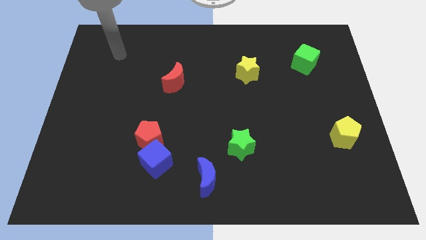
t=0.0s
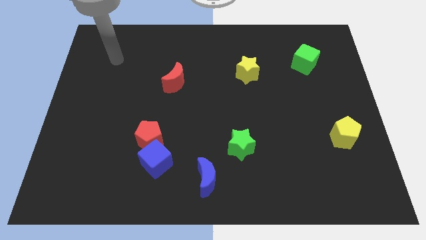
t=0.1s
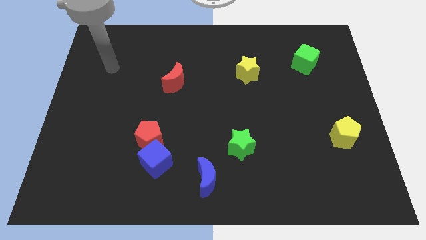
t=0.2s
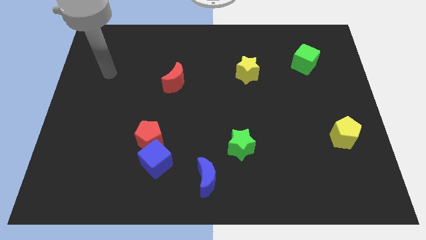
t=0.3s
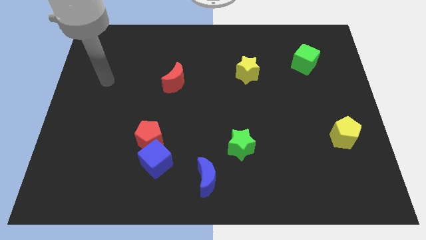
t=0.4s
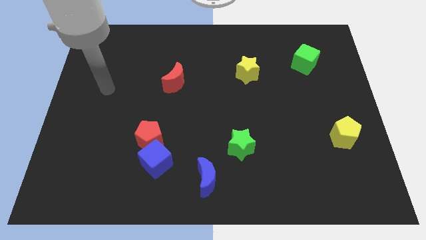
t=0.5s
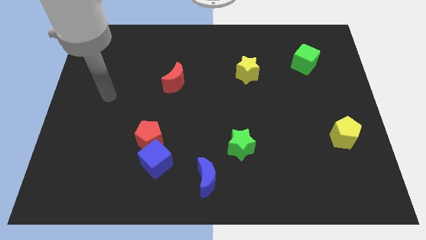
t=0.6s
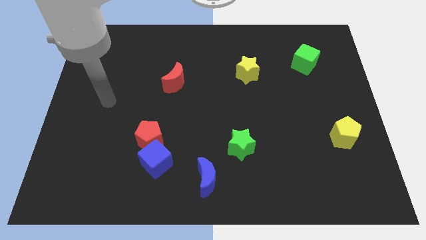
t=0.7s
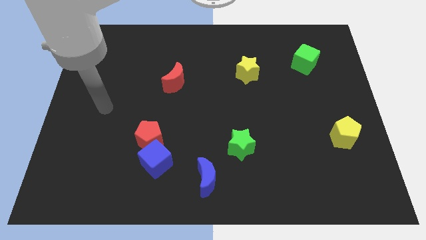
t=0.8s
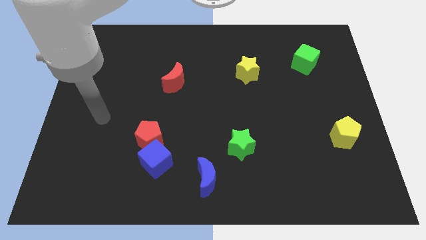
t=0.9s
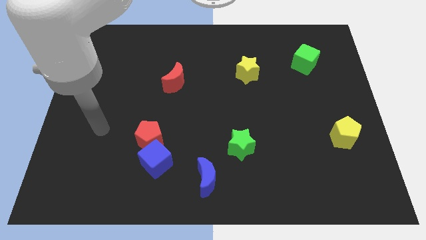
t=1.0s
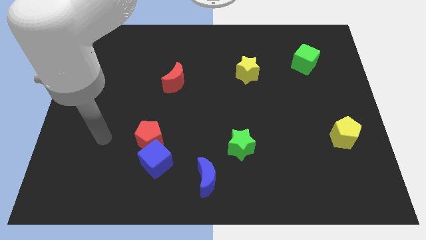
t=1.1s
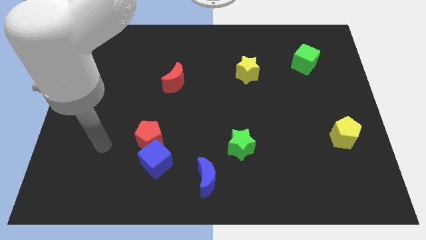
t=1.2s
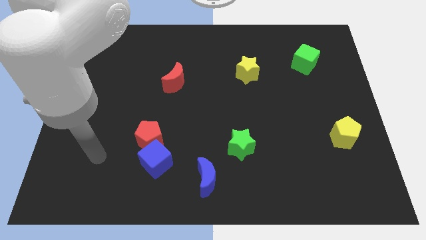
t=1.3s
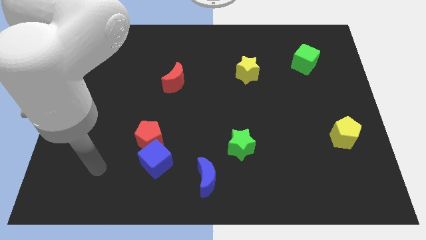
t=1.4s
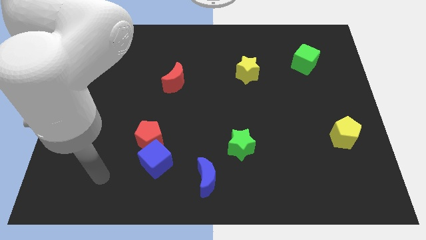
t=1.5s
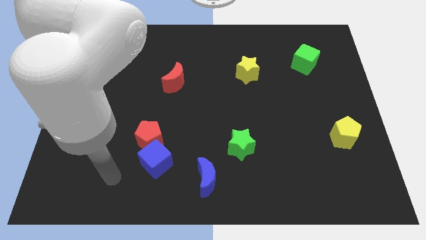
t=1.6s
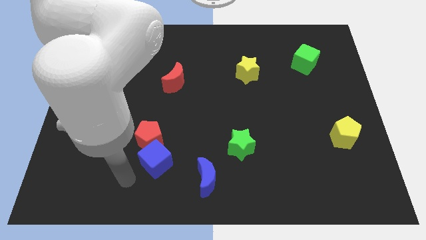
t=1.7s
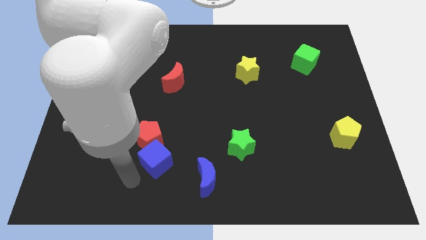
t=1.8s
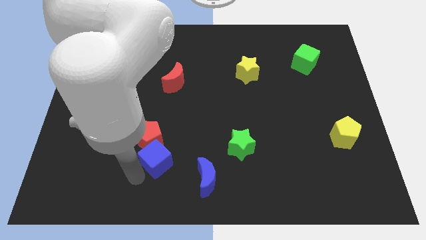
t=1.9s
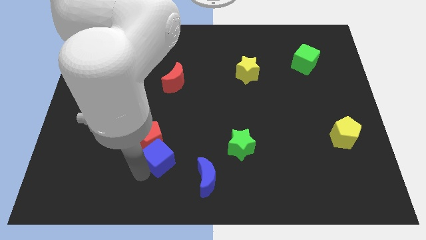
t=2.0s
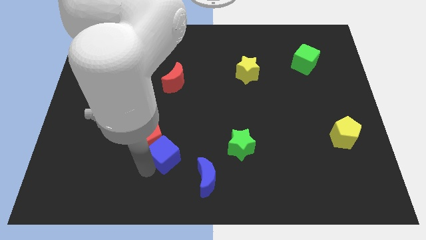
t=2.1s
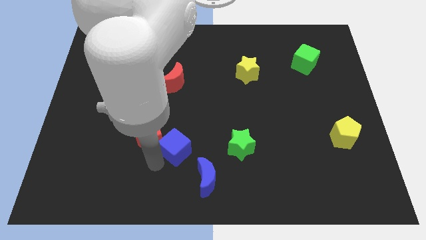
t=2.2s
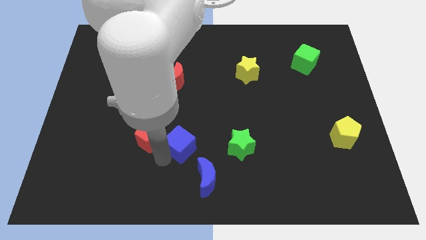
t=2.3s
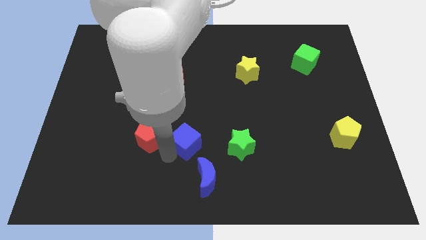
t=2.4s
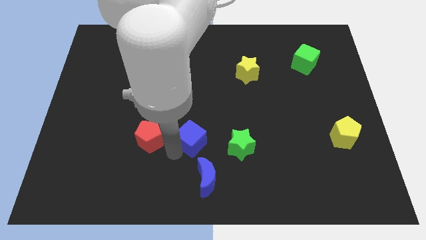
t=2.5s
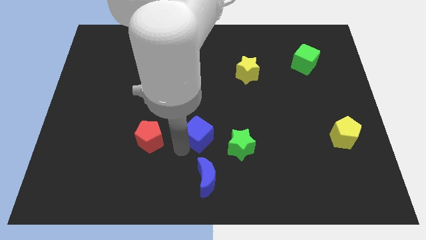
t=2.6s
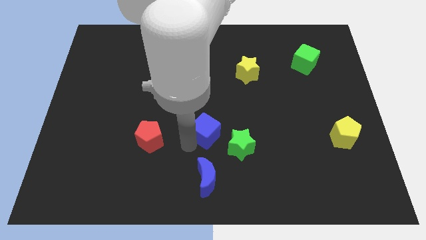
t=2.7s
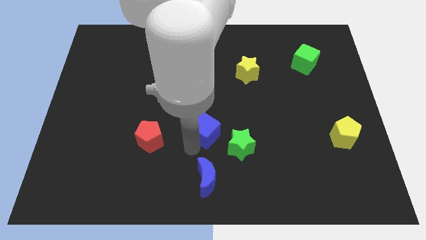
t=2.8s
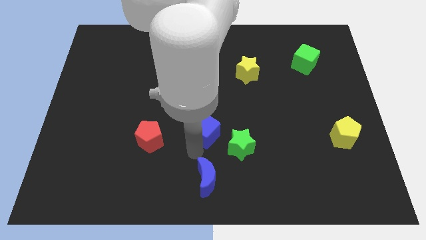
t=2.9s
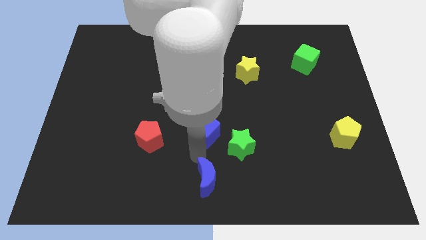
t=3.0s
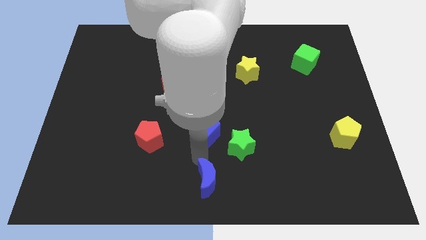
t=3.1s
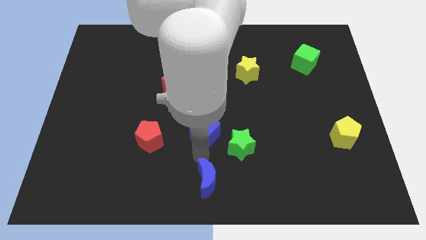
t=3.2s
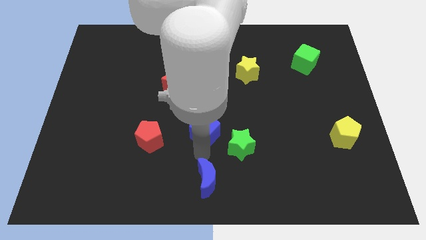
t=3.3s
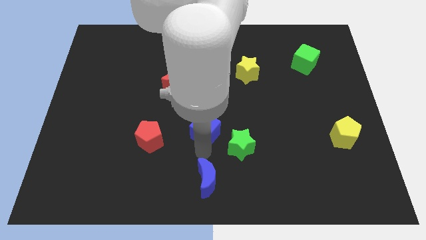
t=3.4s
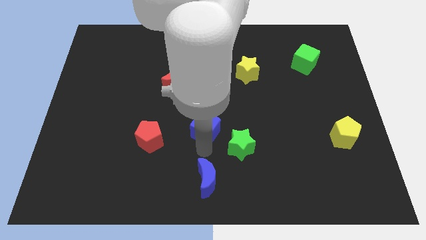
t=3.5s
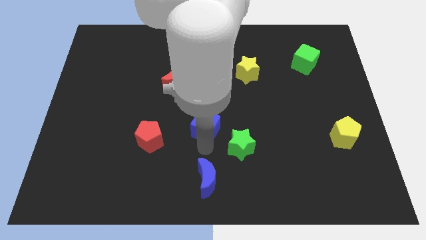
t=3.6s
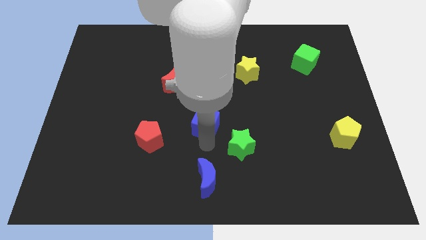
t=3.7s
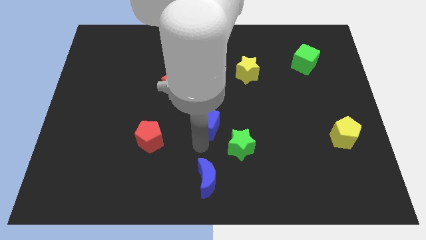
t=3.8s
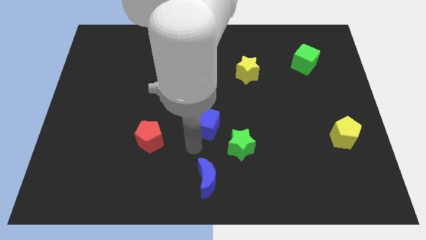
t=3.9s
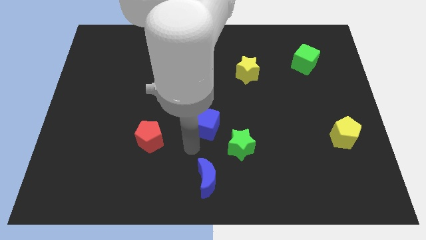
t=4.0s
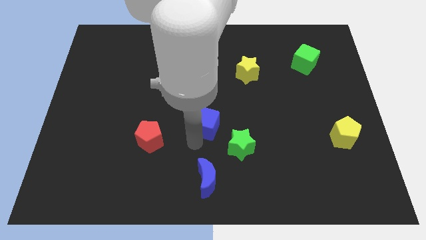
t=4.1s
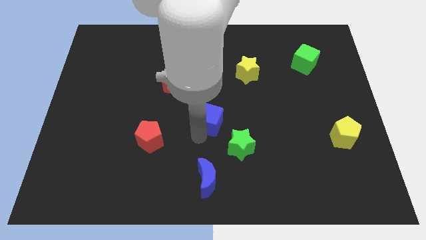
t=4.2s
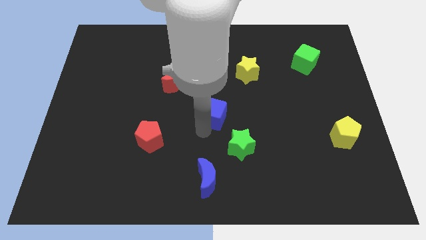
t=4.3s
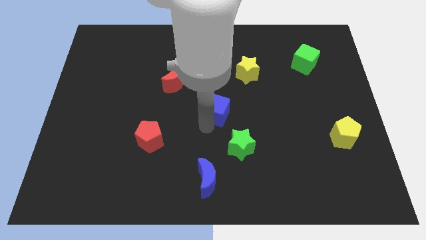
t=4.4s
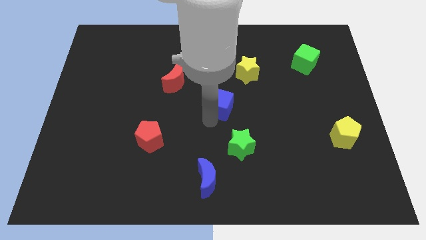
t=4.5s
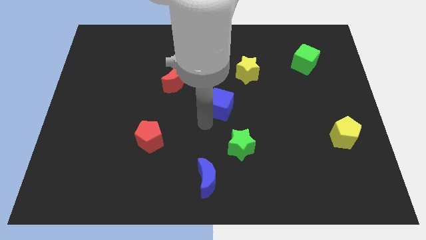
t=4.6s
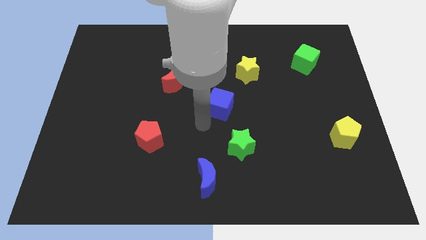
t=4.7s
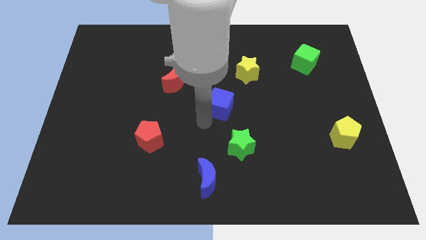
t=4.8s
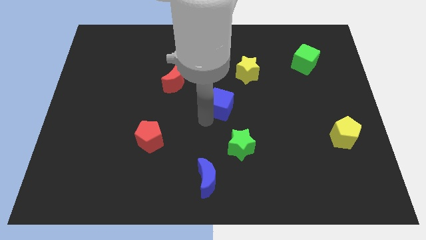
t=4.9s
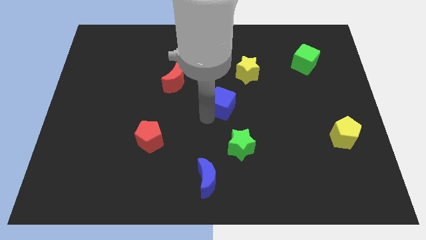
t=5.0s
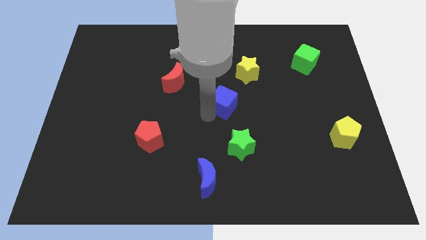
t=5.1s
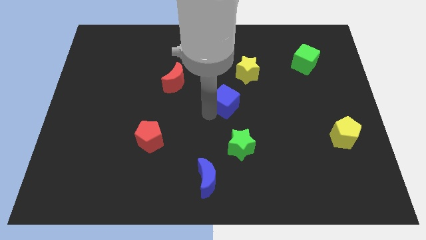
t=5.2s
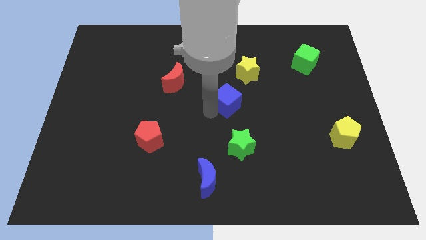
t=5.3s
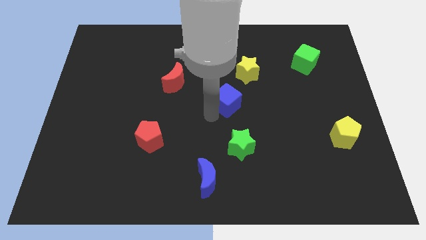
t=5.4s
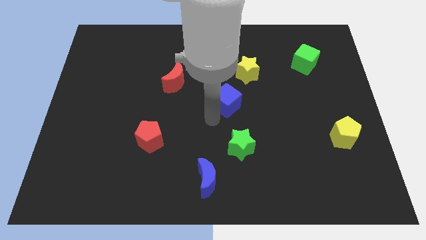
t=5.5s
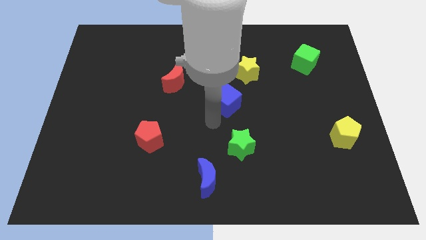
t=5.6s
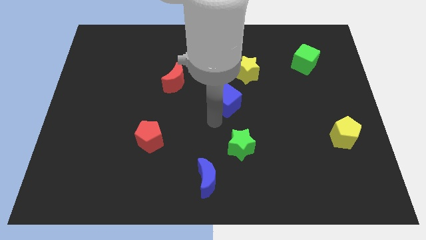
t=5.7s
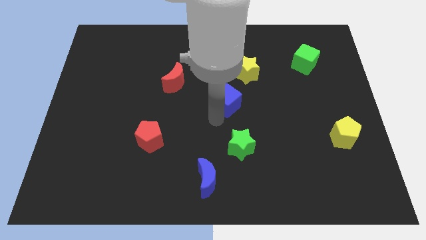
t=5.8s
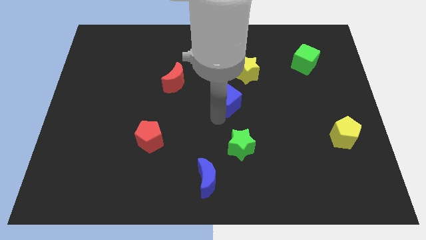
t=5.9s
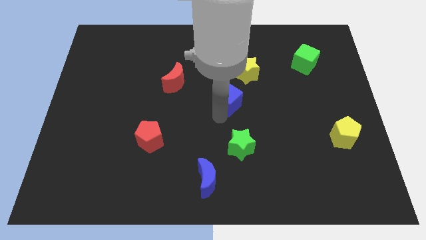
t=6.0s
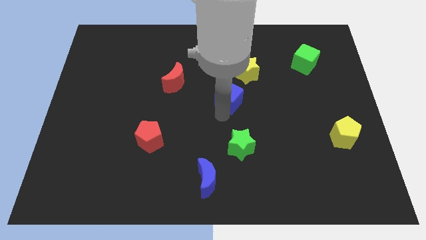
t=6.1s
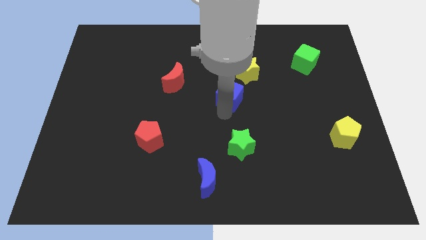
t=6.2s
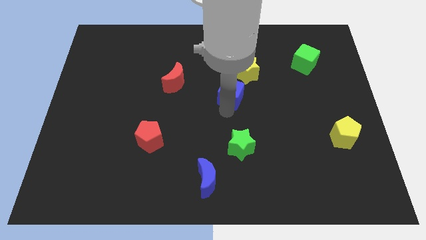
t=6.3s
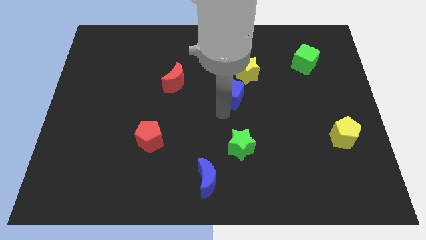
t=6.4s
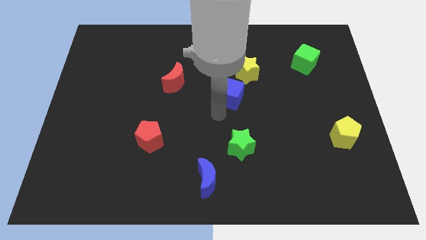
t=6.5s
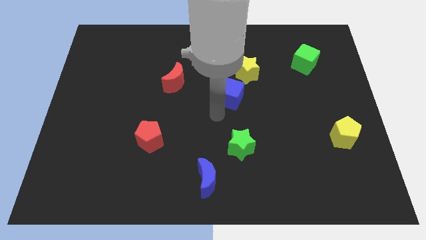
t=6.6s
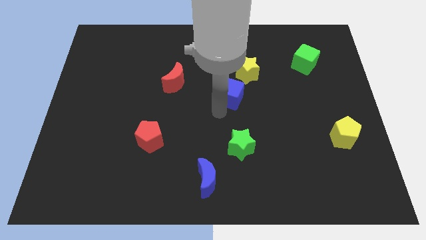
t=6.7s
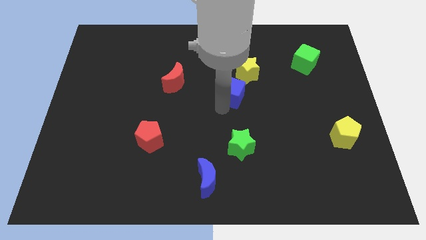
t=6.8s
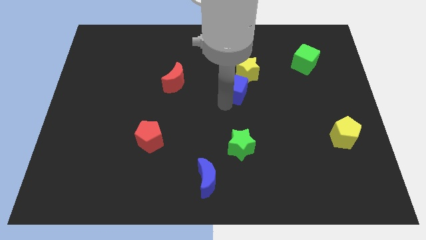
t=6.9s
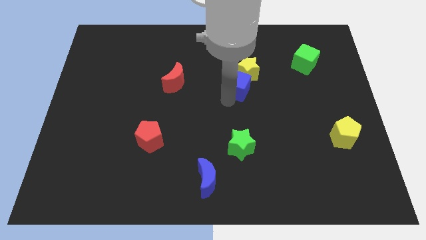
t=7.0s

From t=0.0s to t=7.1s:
push the blue cube towards the yellow star
